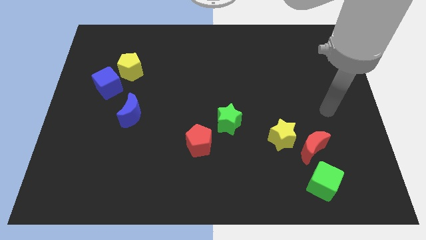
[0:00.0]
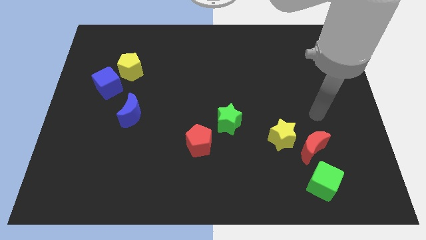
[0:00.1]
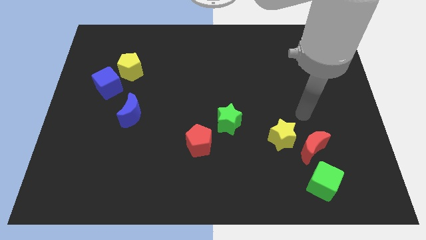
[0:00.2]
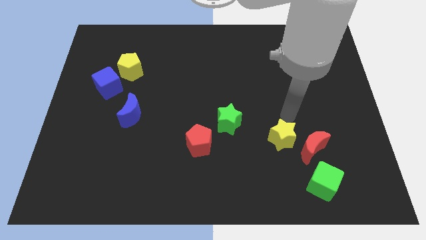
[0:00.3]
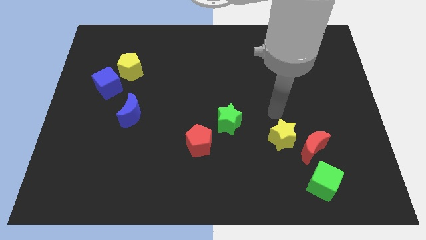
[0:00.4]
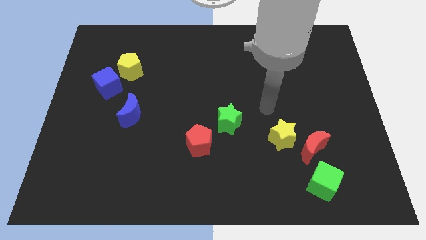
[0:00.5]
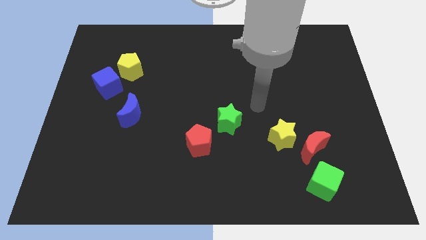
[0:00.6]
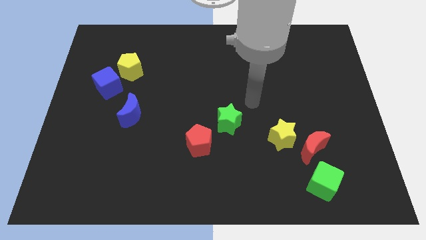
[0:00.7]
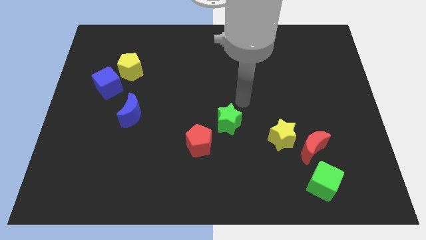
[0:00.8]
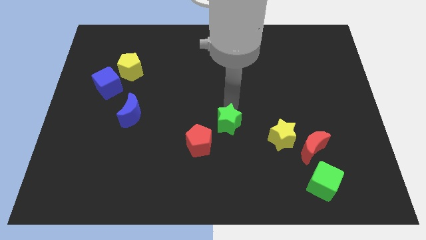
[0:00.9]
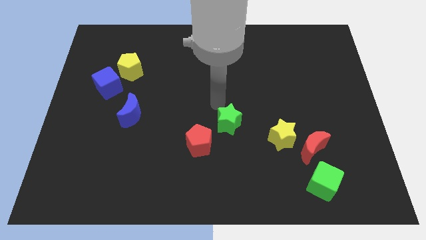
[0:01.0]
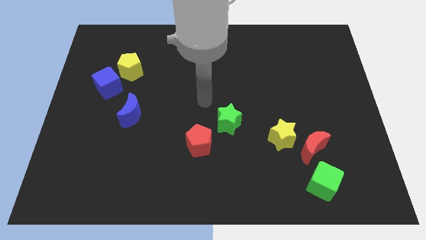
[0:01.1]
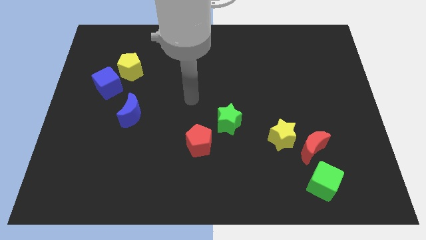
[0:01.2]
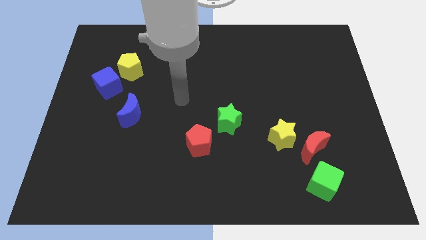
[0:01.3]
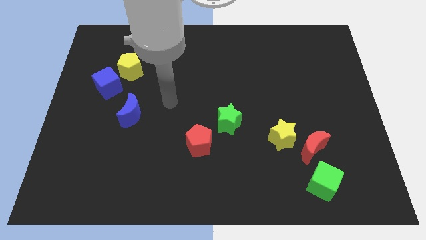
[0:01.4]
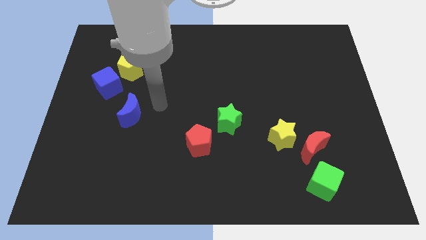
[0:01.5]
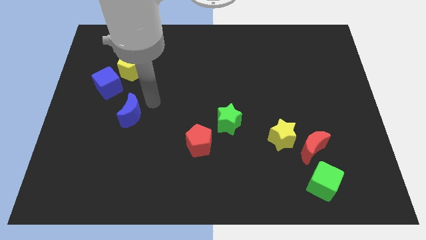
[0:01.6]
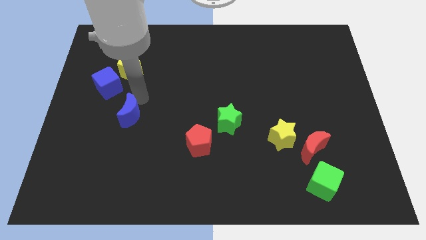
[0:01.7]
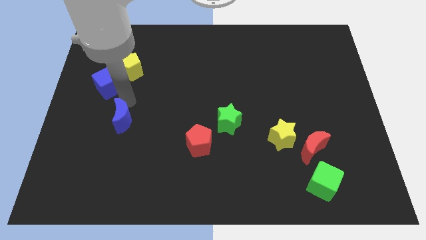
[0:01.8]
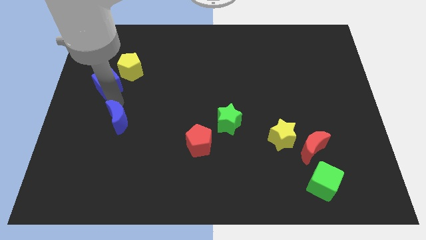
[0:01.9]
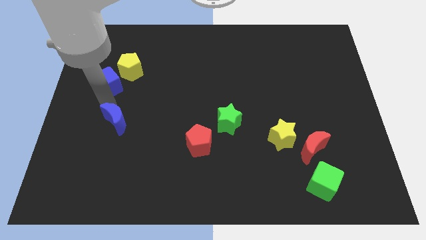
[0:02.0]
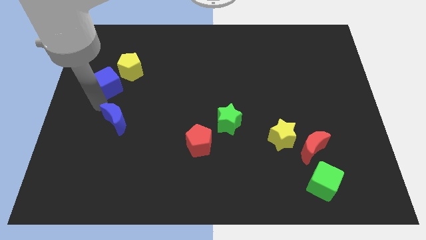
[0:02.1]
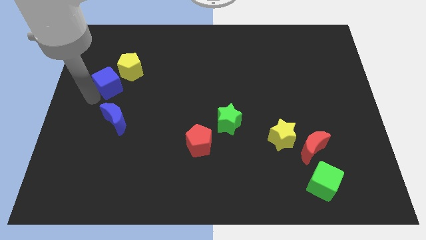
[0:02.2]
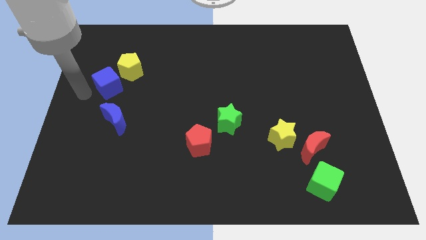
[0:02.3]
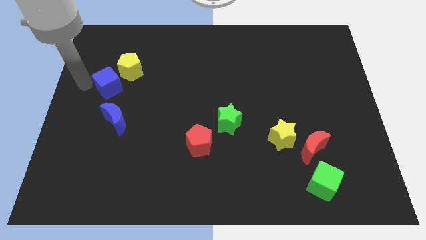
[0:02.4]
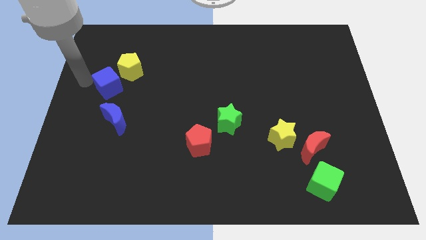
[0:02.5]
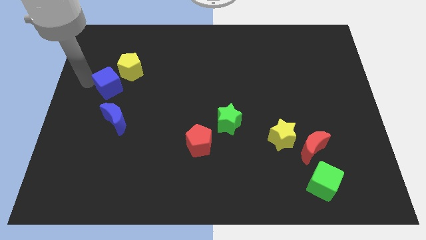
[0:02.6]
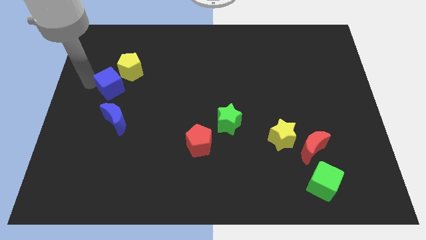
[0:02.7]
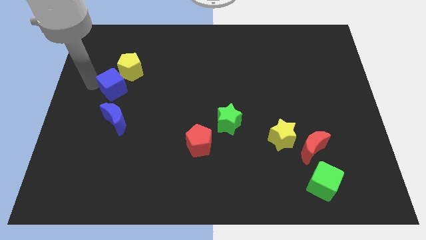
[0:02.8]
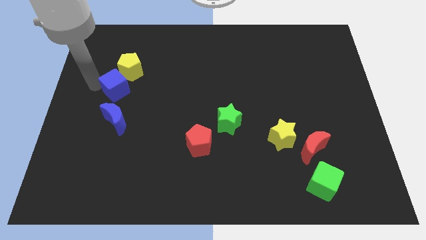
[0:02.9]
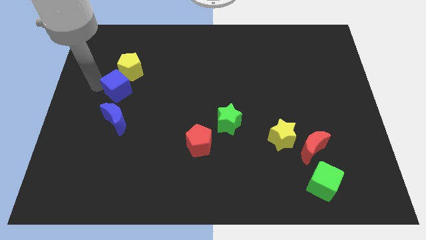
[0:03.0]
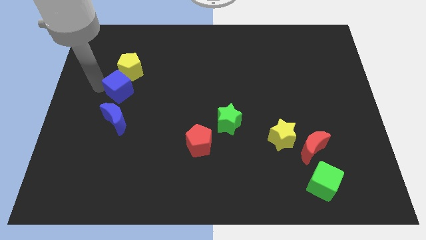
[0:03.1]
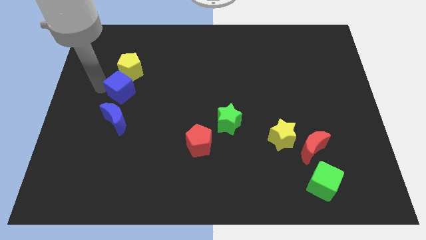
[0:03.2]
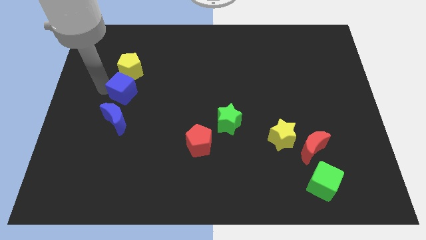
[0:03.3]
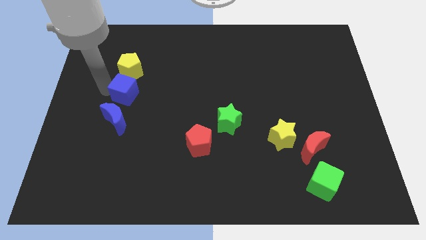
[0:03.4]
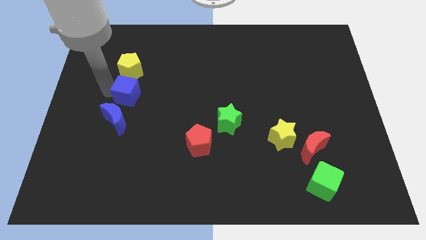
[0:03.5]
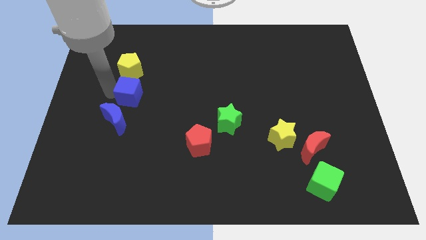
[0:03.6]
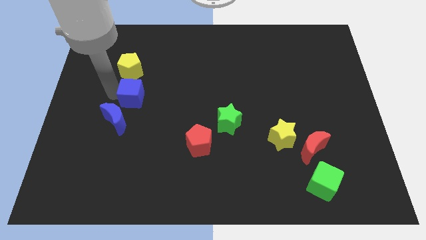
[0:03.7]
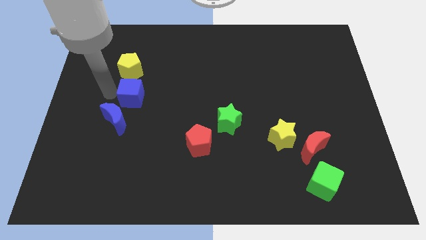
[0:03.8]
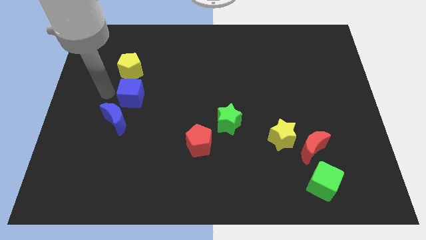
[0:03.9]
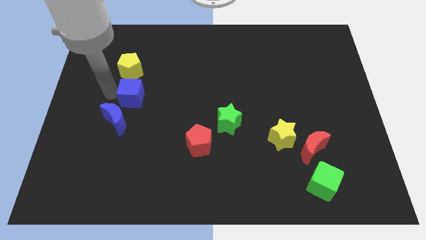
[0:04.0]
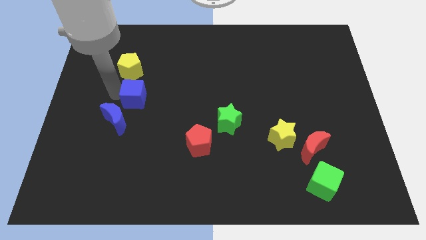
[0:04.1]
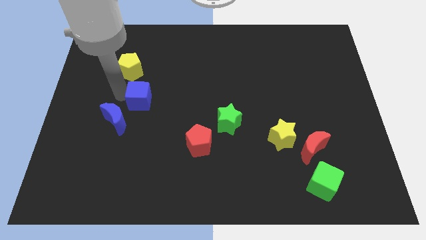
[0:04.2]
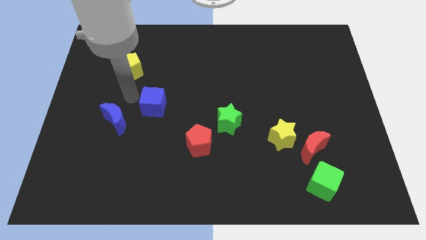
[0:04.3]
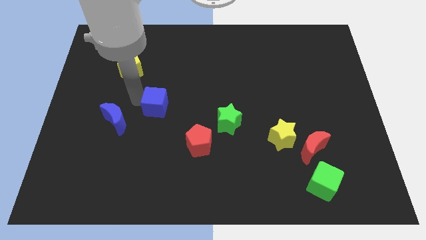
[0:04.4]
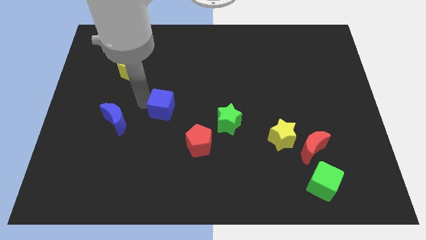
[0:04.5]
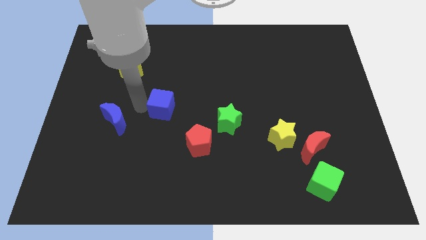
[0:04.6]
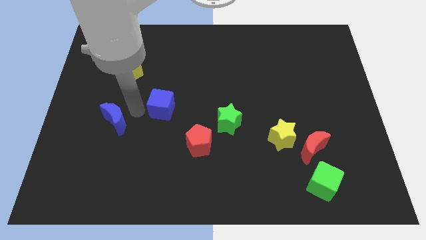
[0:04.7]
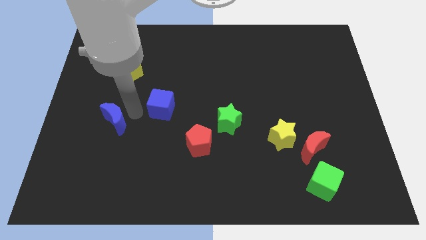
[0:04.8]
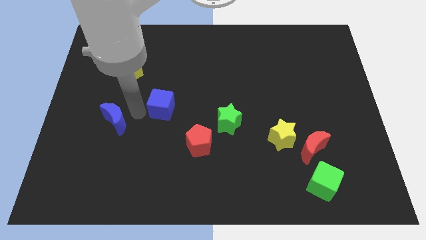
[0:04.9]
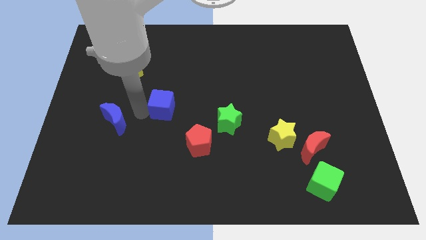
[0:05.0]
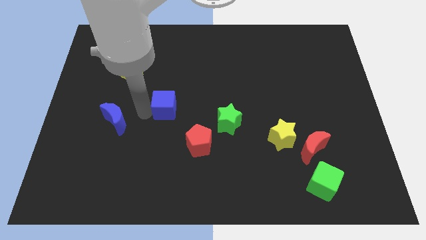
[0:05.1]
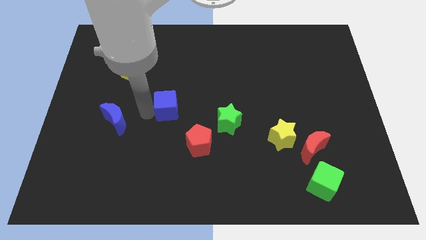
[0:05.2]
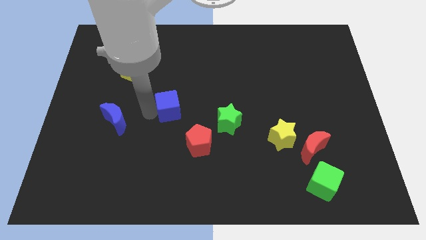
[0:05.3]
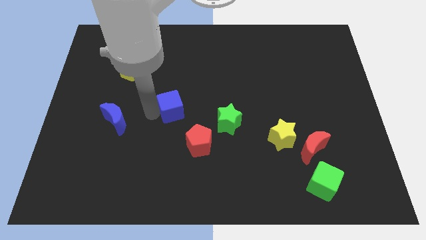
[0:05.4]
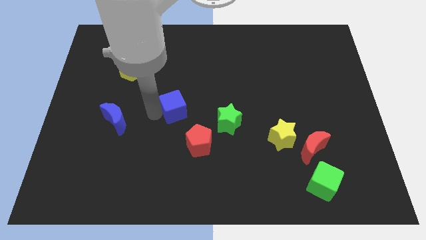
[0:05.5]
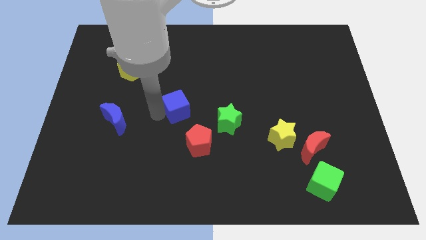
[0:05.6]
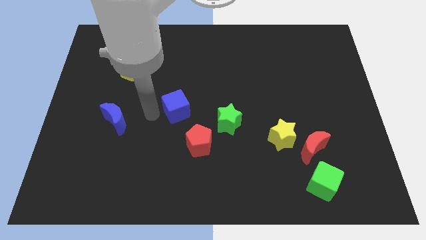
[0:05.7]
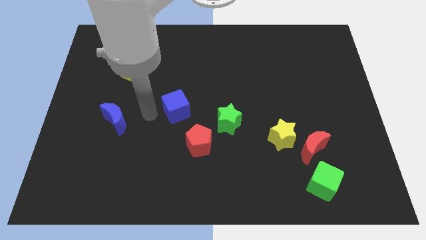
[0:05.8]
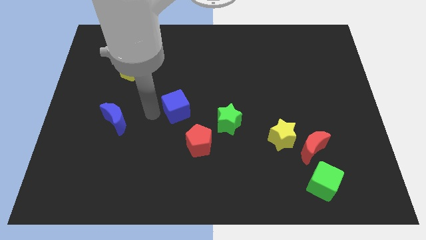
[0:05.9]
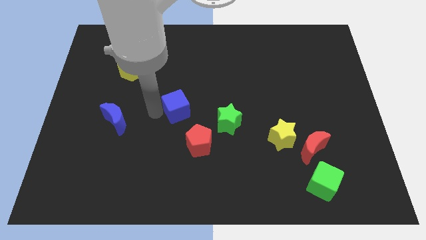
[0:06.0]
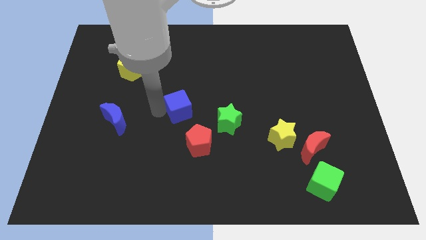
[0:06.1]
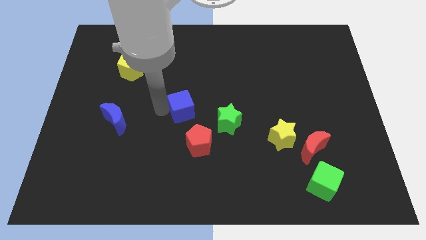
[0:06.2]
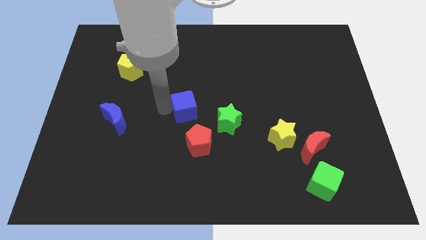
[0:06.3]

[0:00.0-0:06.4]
slide the blue cube to the top left of the green star

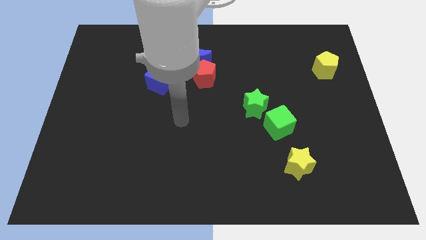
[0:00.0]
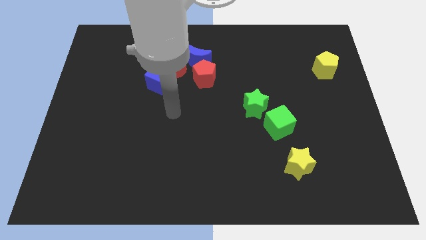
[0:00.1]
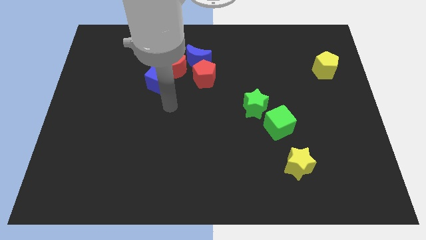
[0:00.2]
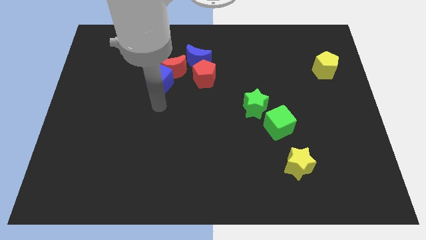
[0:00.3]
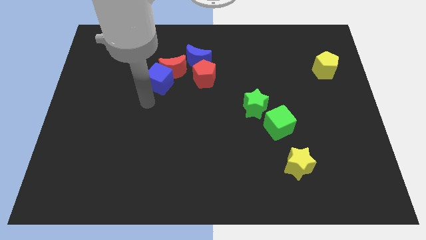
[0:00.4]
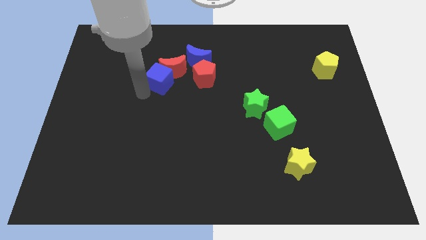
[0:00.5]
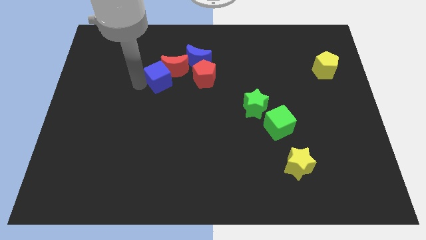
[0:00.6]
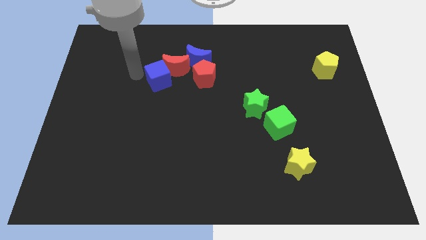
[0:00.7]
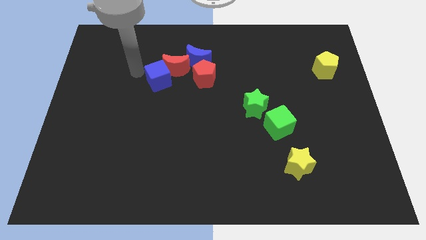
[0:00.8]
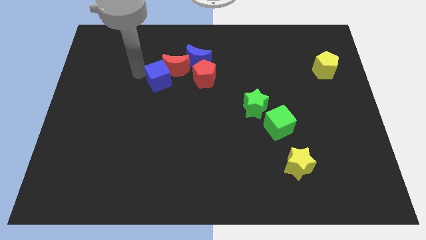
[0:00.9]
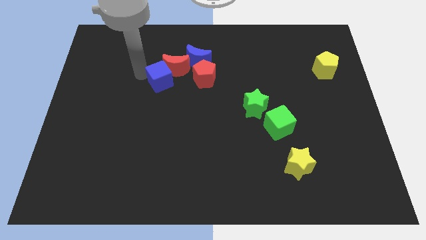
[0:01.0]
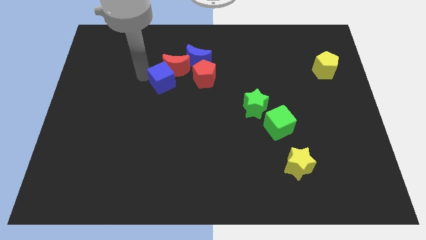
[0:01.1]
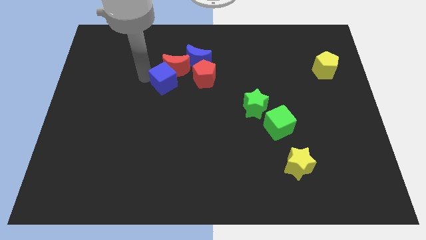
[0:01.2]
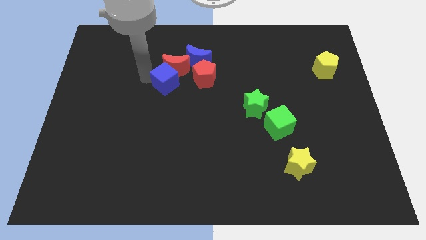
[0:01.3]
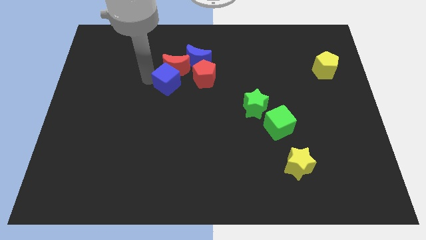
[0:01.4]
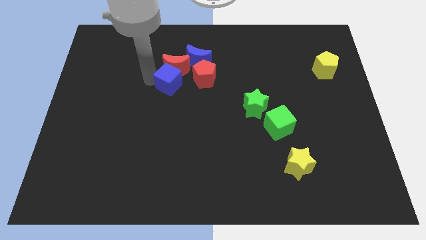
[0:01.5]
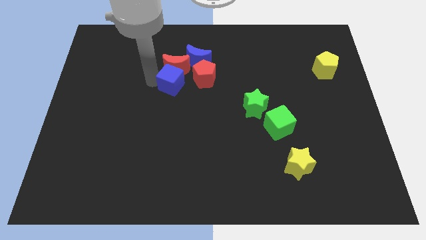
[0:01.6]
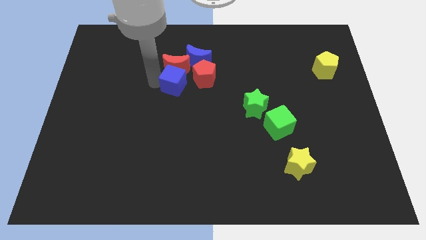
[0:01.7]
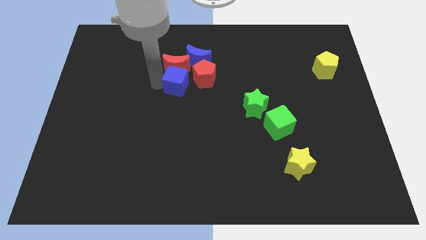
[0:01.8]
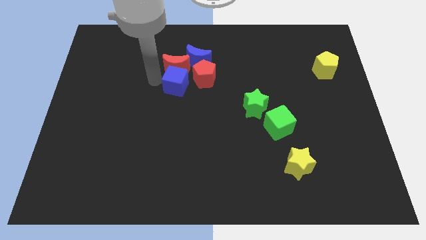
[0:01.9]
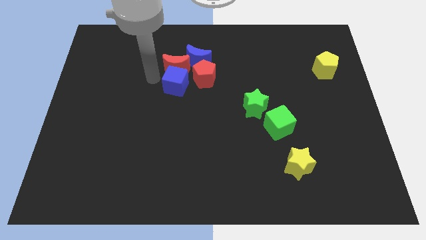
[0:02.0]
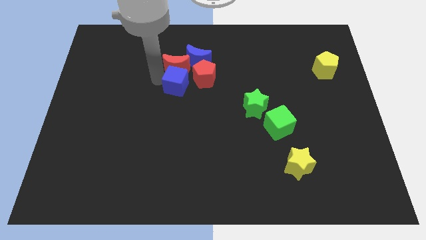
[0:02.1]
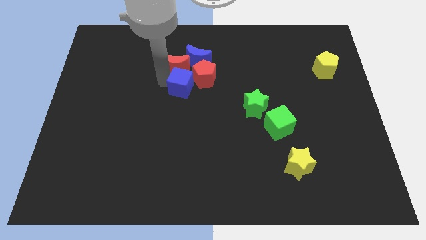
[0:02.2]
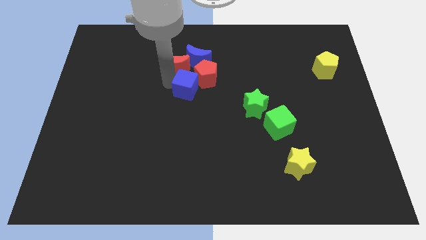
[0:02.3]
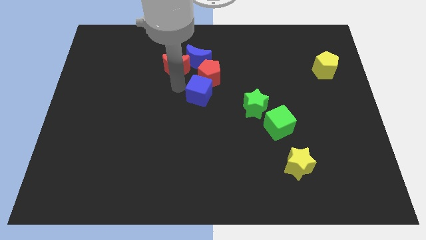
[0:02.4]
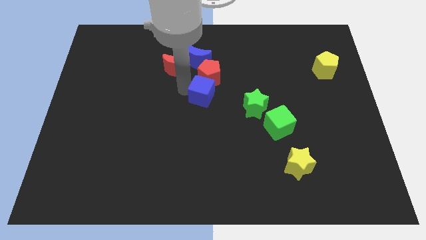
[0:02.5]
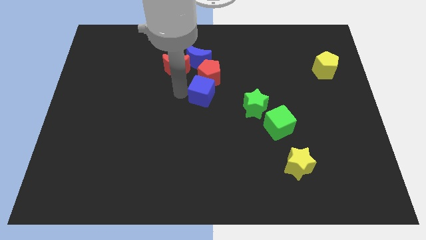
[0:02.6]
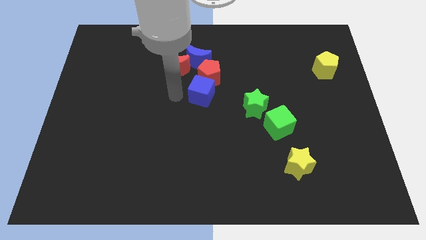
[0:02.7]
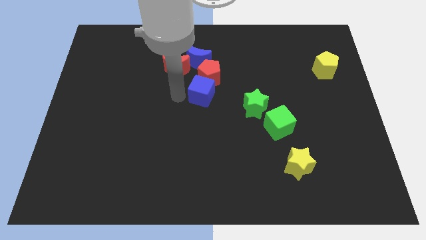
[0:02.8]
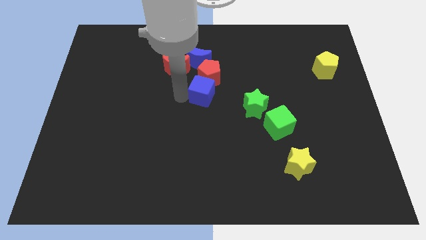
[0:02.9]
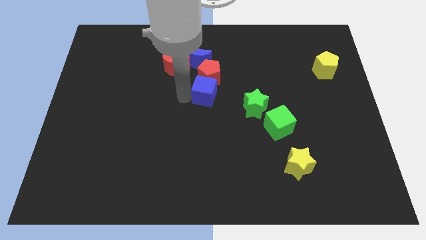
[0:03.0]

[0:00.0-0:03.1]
move the blue cube diagonally down and to the right of the red pentagon
